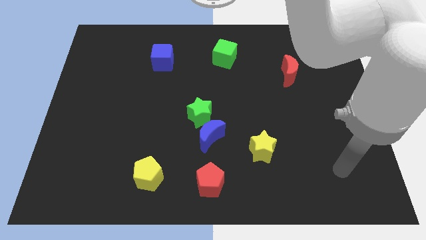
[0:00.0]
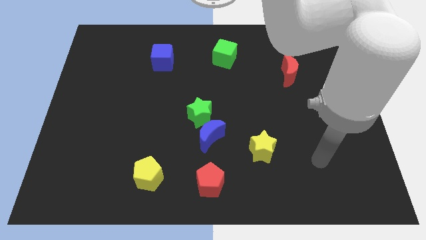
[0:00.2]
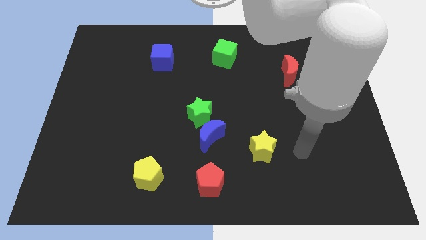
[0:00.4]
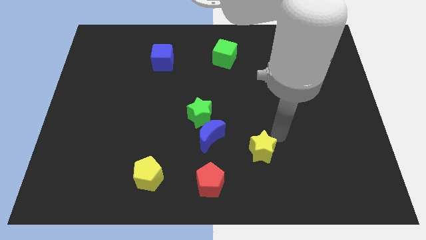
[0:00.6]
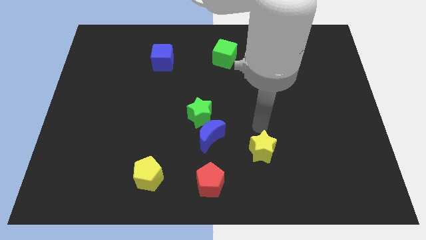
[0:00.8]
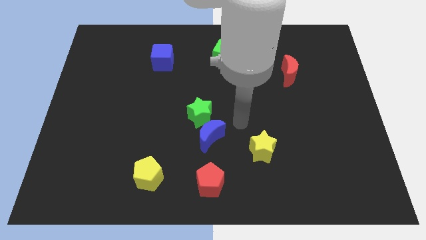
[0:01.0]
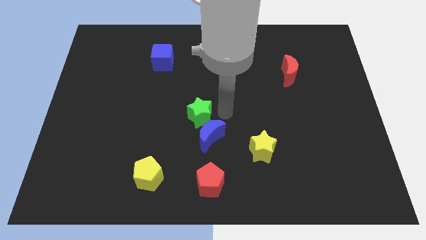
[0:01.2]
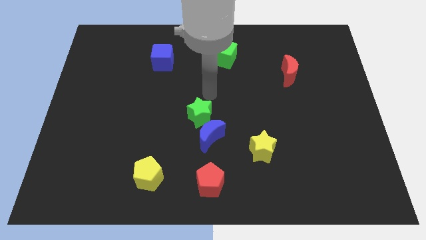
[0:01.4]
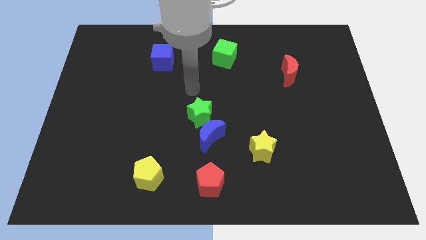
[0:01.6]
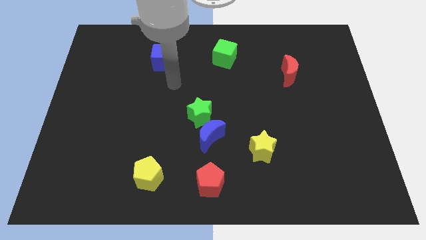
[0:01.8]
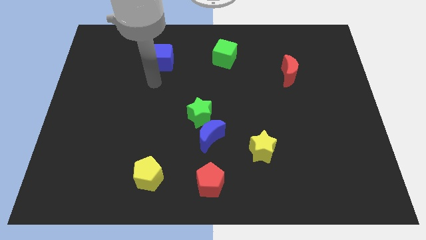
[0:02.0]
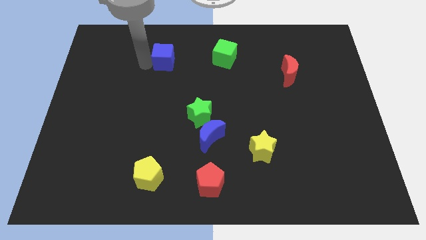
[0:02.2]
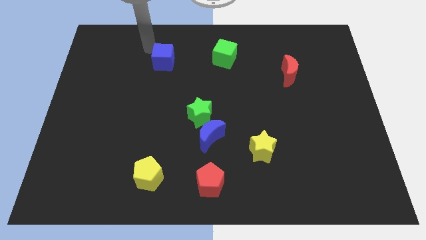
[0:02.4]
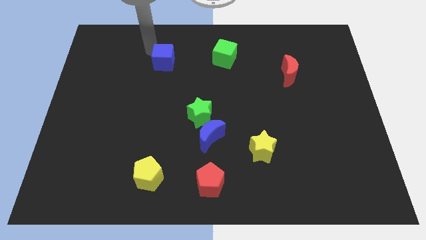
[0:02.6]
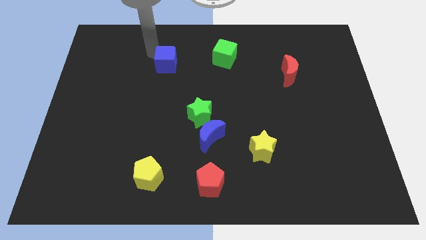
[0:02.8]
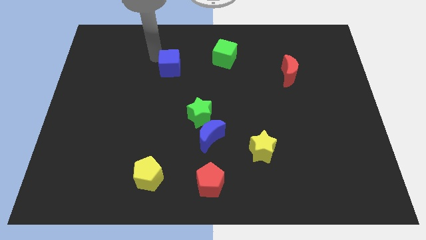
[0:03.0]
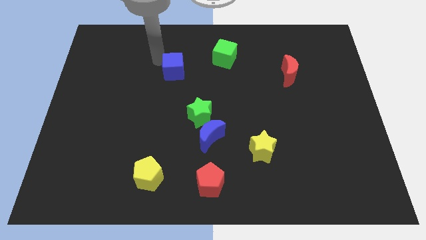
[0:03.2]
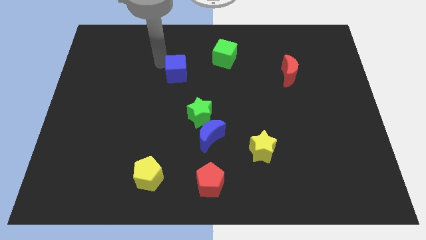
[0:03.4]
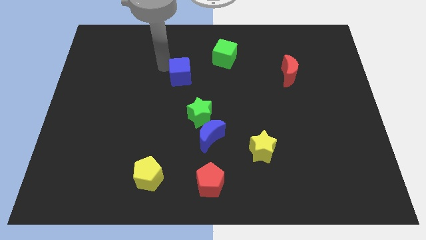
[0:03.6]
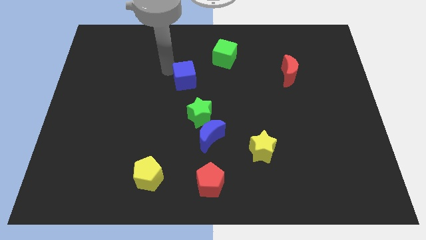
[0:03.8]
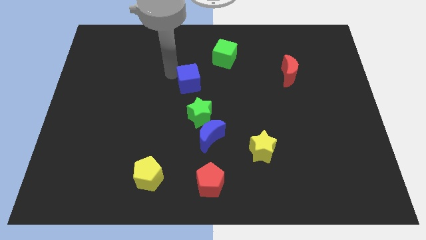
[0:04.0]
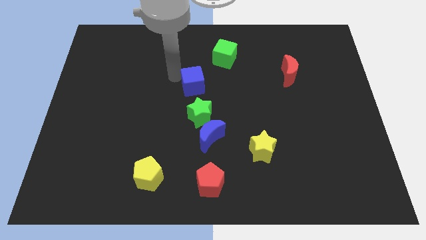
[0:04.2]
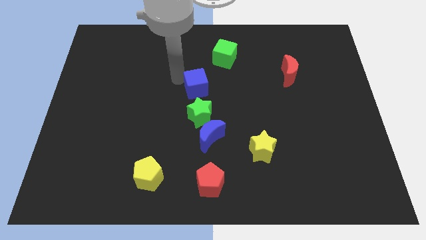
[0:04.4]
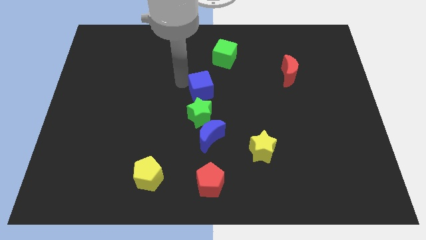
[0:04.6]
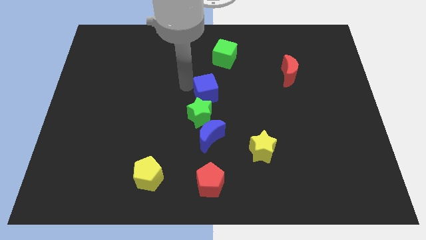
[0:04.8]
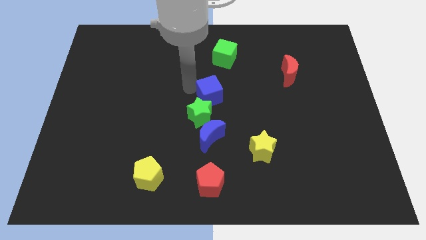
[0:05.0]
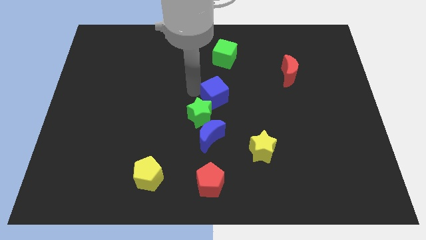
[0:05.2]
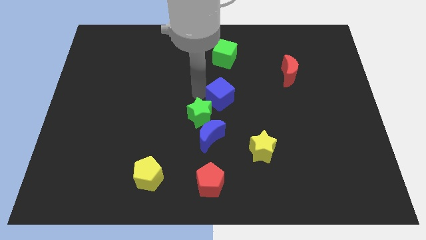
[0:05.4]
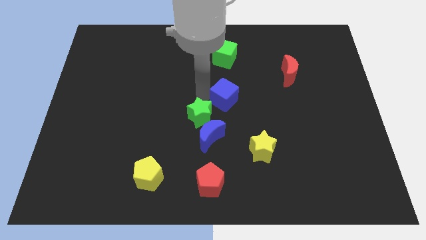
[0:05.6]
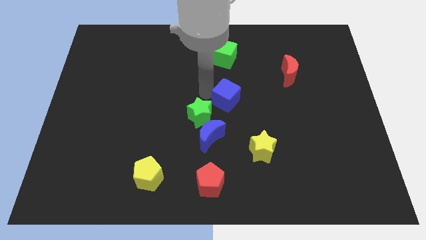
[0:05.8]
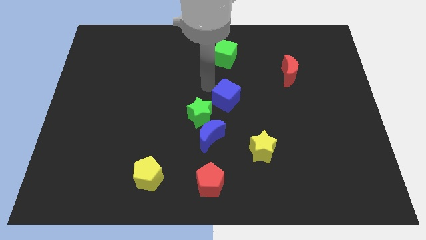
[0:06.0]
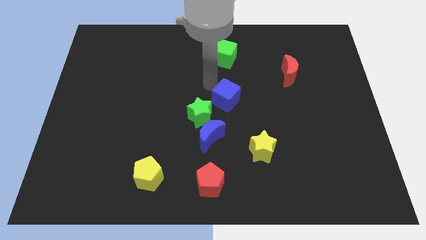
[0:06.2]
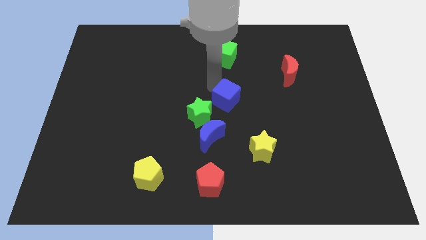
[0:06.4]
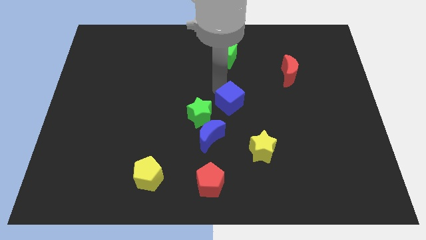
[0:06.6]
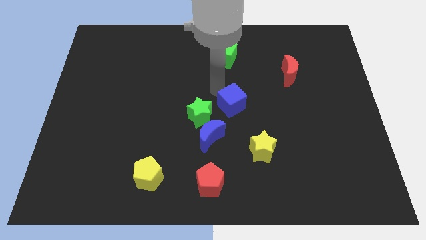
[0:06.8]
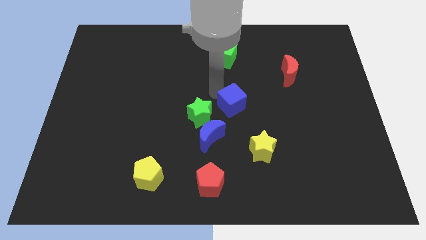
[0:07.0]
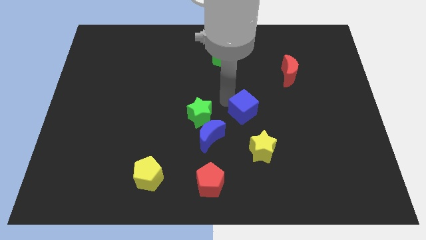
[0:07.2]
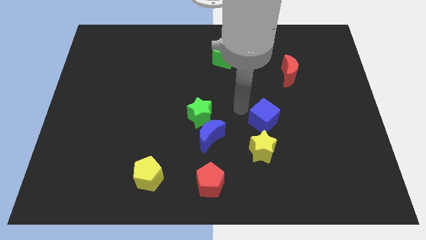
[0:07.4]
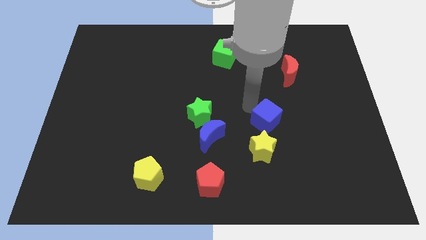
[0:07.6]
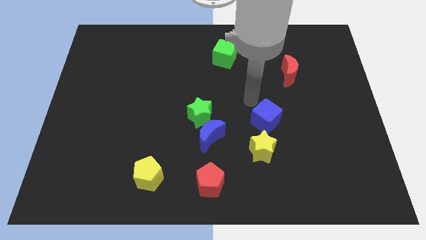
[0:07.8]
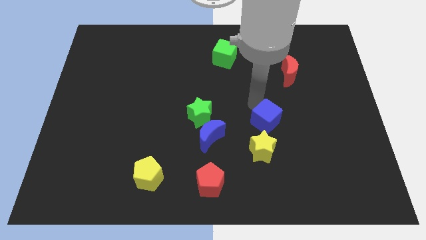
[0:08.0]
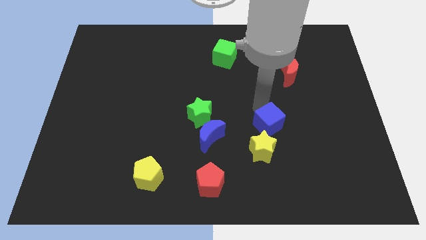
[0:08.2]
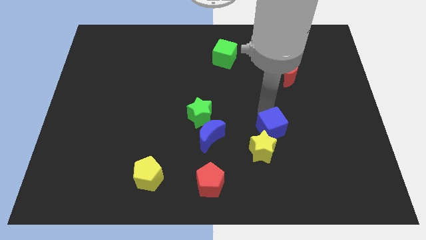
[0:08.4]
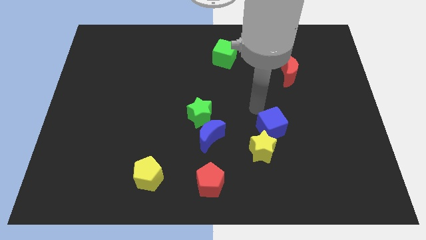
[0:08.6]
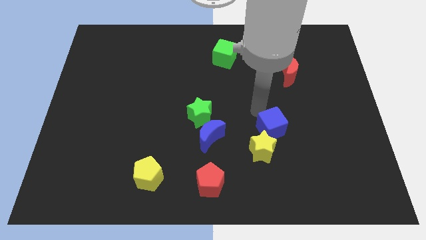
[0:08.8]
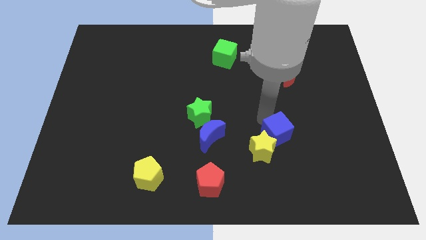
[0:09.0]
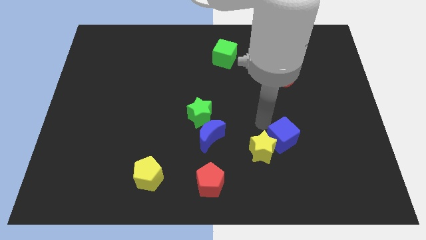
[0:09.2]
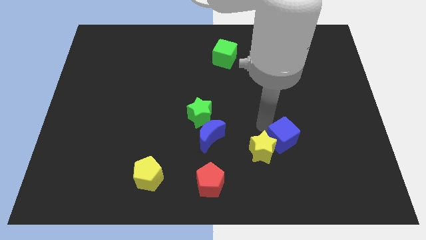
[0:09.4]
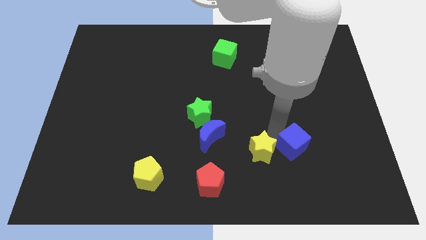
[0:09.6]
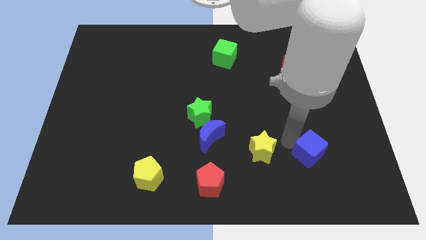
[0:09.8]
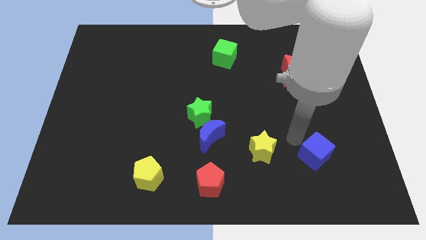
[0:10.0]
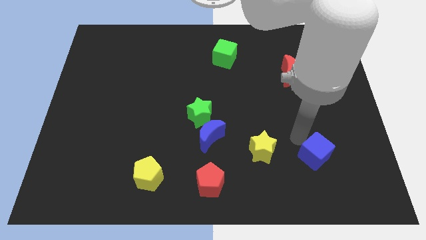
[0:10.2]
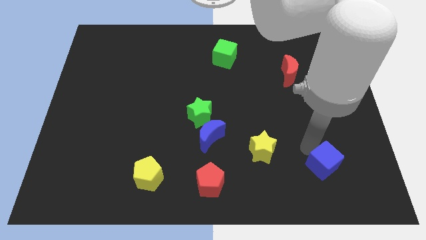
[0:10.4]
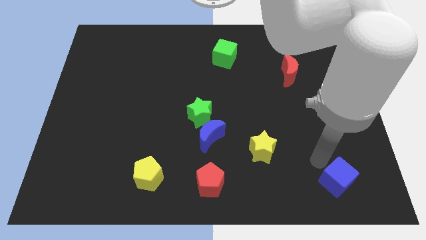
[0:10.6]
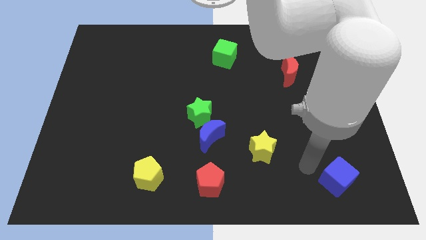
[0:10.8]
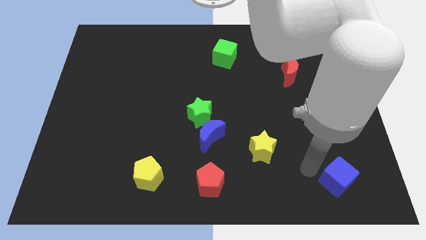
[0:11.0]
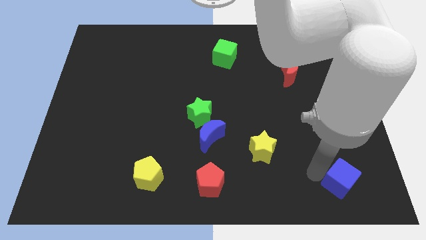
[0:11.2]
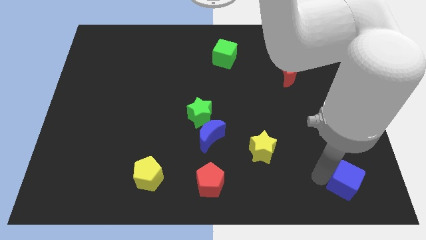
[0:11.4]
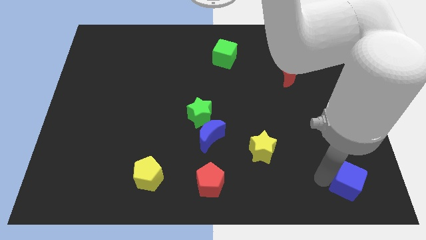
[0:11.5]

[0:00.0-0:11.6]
push the blue cube to the bottom right corner

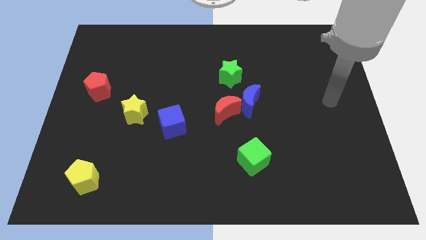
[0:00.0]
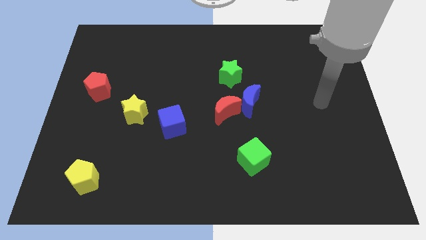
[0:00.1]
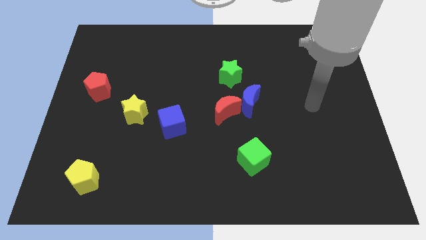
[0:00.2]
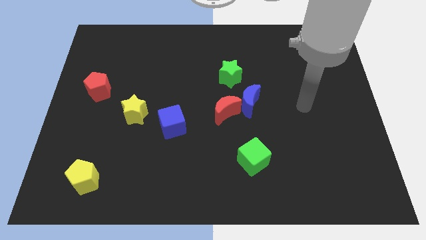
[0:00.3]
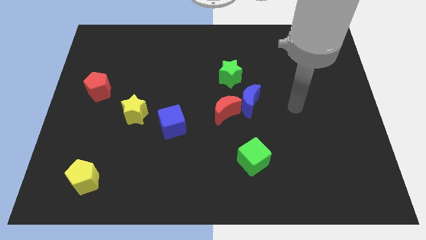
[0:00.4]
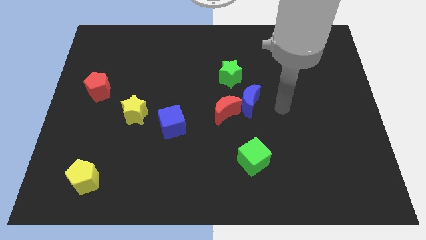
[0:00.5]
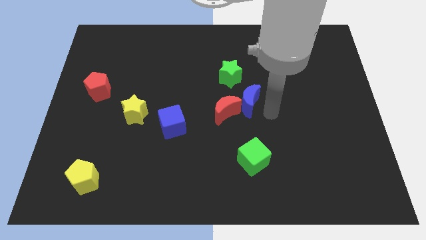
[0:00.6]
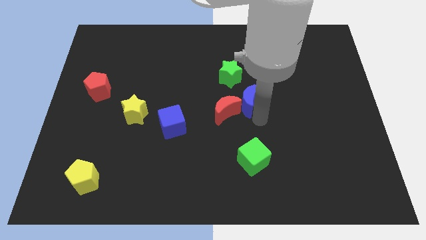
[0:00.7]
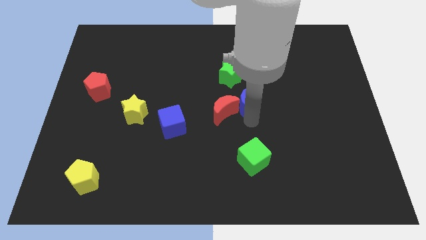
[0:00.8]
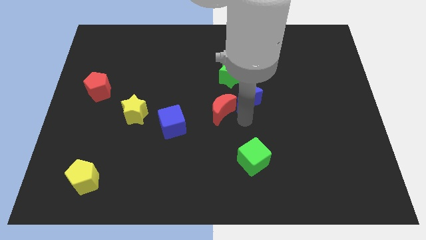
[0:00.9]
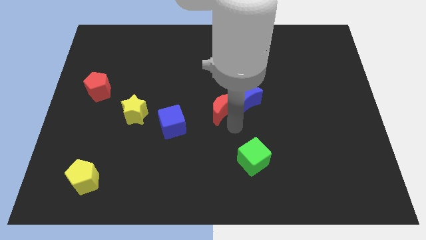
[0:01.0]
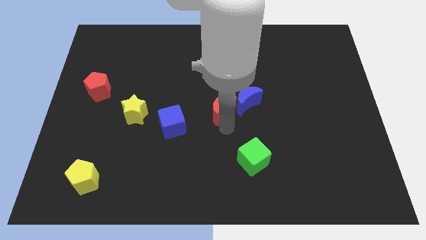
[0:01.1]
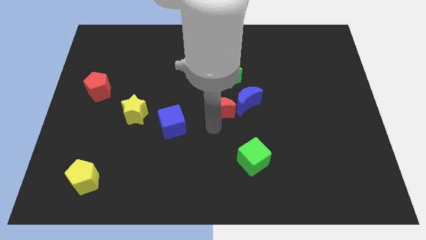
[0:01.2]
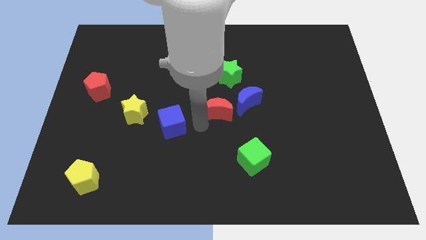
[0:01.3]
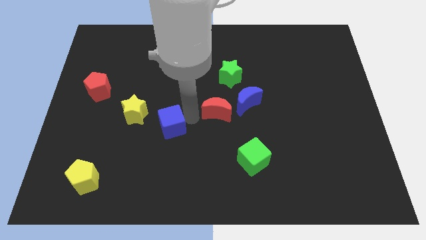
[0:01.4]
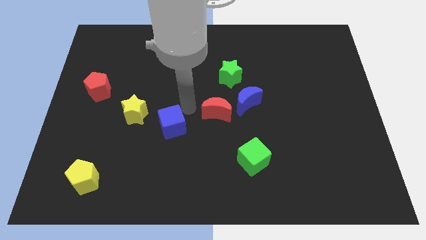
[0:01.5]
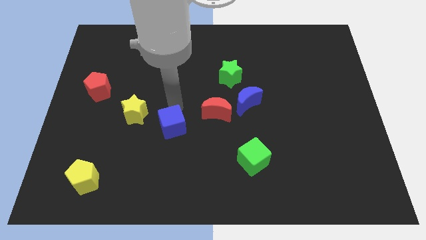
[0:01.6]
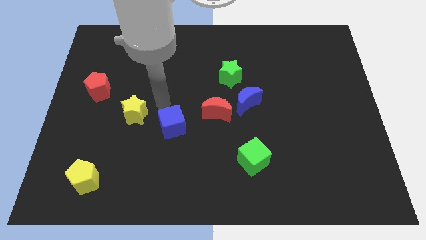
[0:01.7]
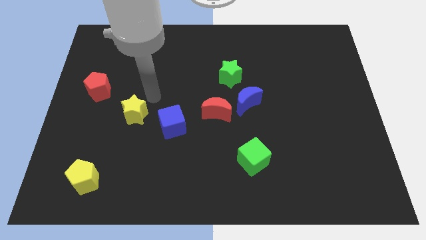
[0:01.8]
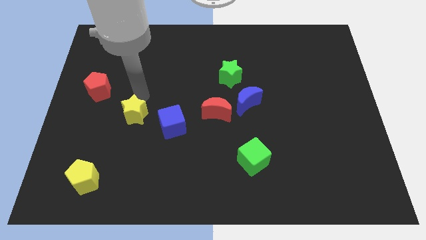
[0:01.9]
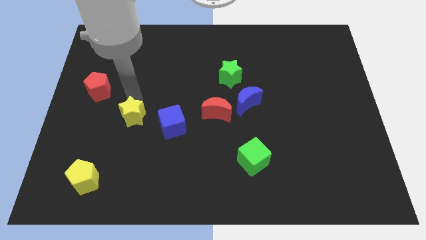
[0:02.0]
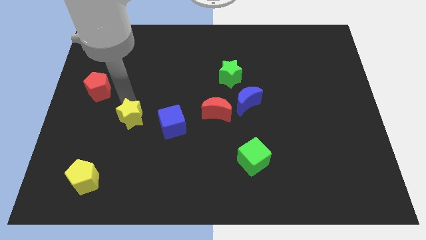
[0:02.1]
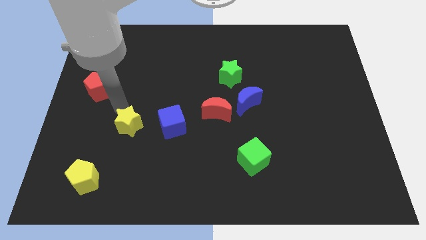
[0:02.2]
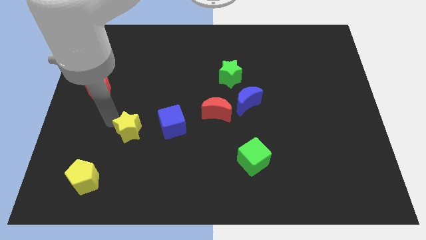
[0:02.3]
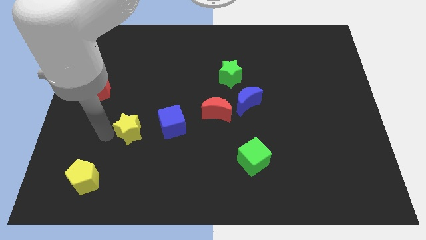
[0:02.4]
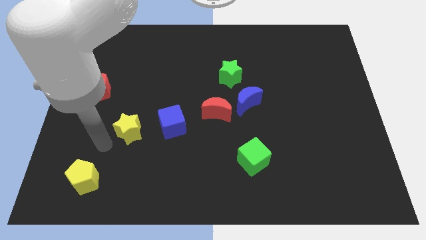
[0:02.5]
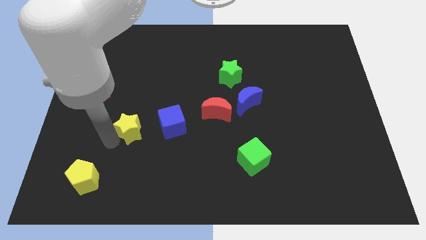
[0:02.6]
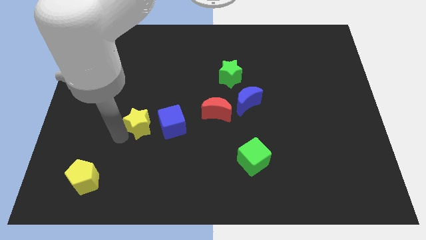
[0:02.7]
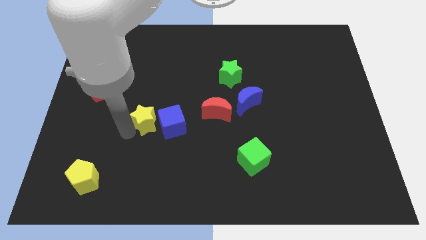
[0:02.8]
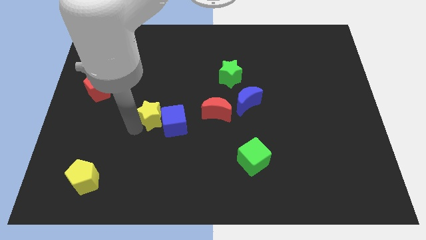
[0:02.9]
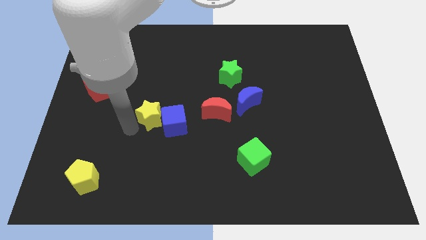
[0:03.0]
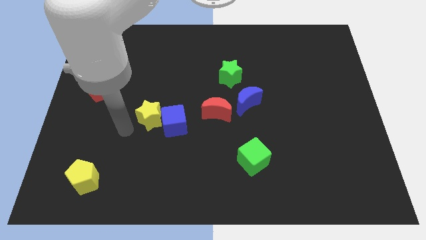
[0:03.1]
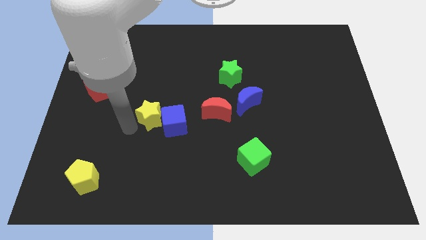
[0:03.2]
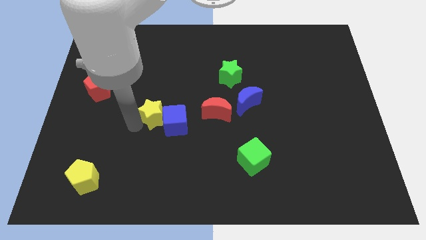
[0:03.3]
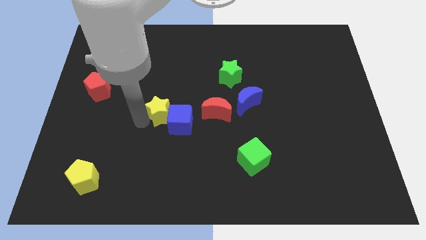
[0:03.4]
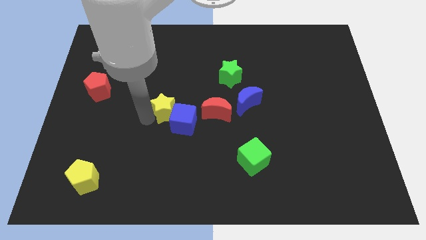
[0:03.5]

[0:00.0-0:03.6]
move the yellow star to the middle of the board
